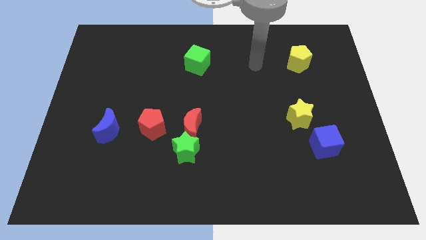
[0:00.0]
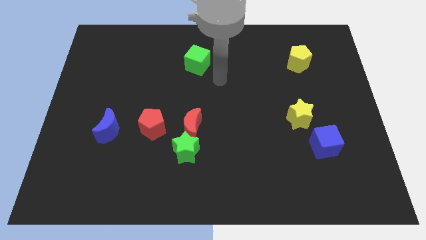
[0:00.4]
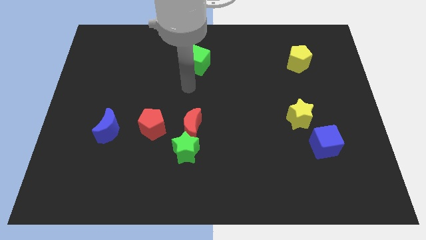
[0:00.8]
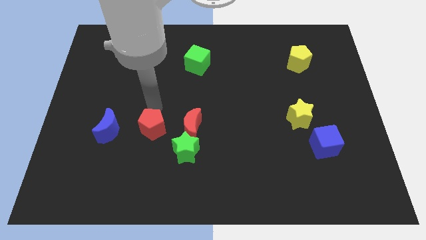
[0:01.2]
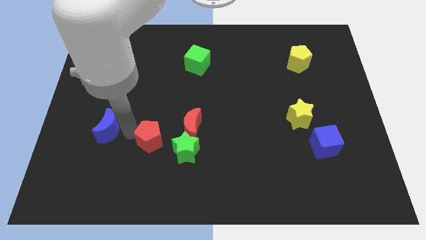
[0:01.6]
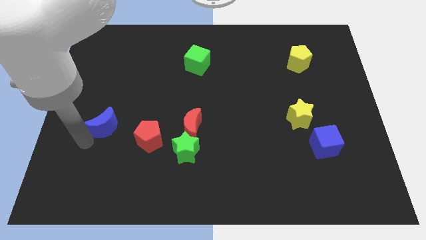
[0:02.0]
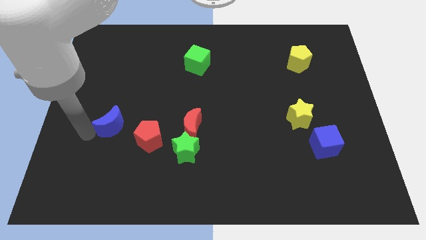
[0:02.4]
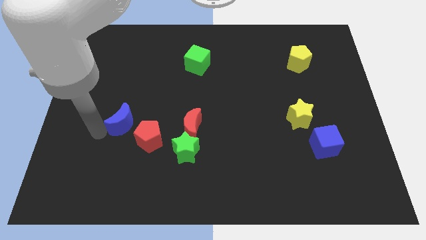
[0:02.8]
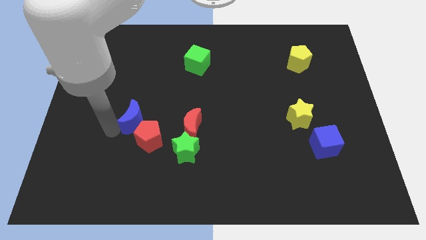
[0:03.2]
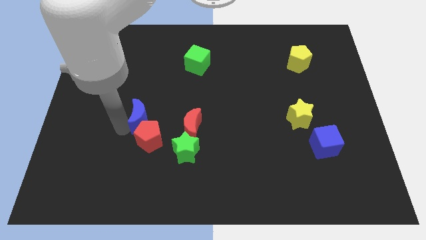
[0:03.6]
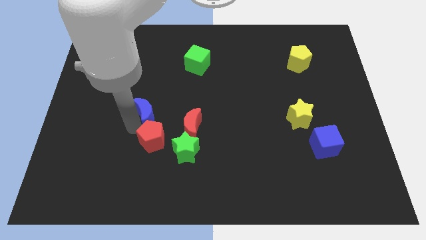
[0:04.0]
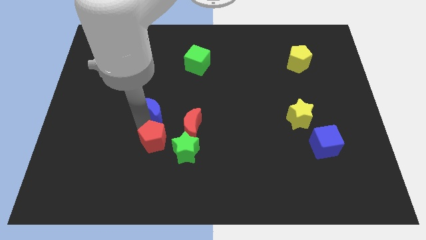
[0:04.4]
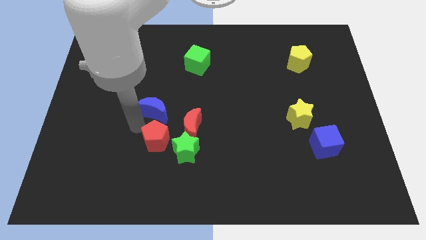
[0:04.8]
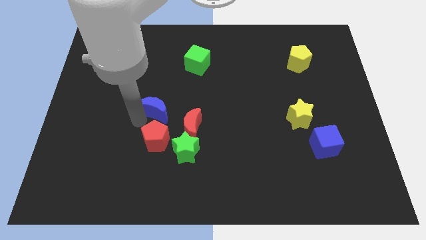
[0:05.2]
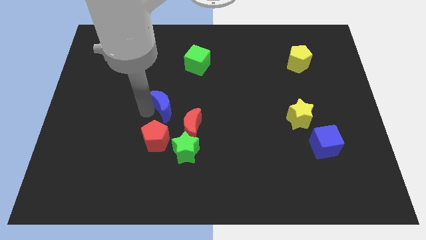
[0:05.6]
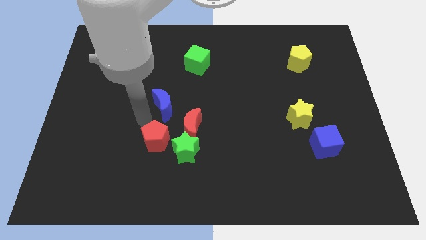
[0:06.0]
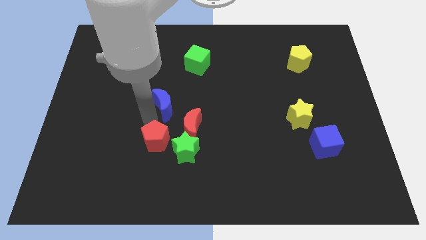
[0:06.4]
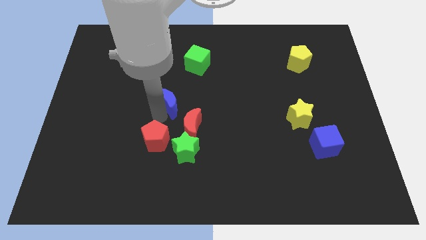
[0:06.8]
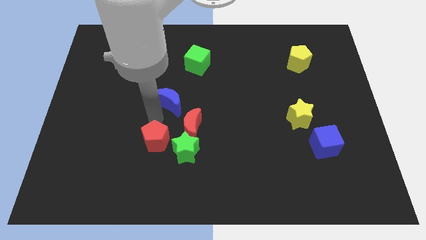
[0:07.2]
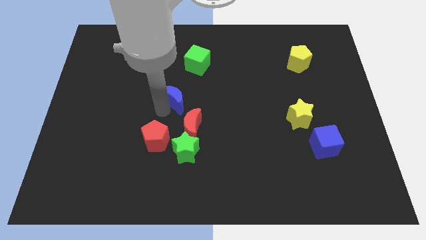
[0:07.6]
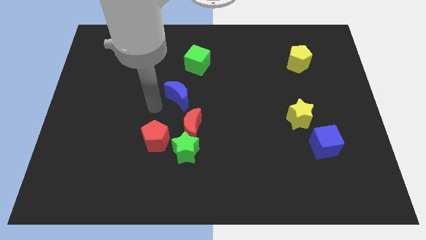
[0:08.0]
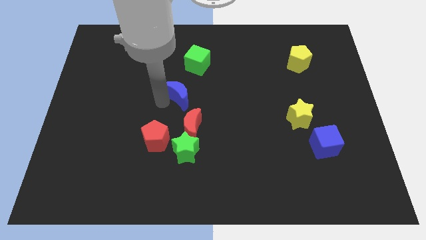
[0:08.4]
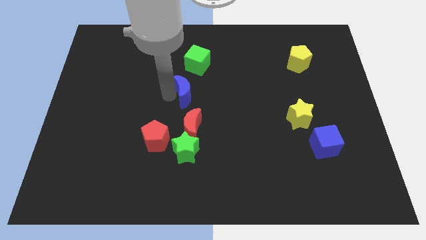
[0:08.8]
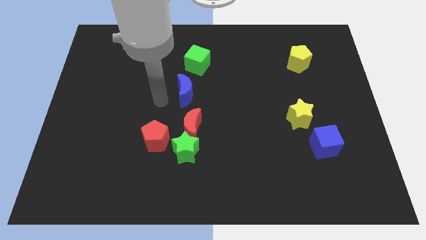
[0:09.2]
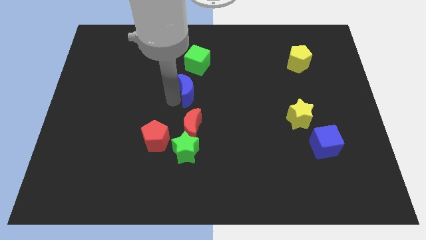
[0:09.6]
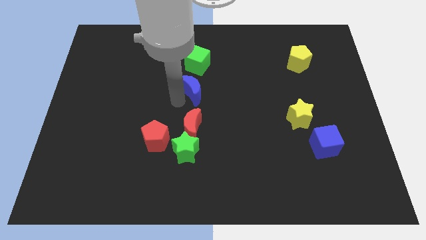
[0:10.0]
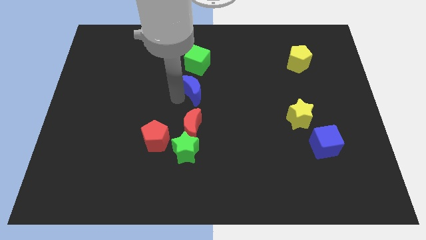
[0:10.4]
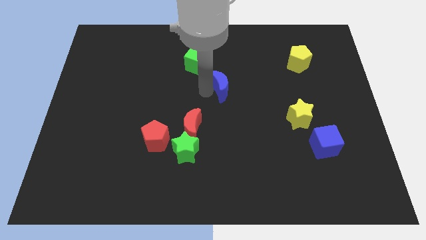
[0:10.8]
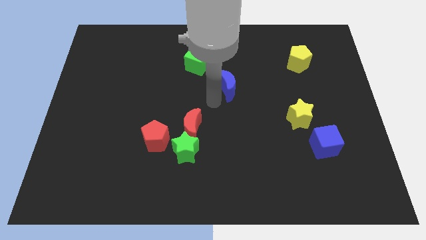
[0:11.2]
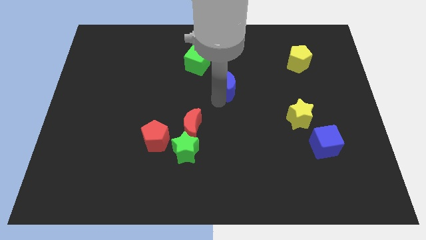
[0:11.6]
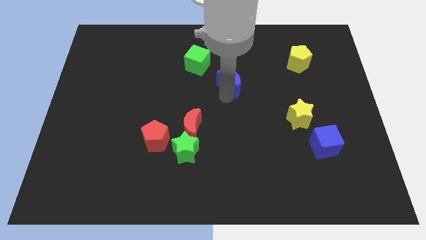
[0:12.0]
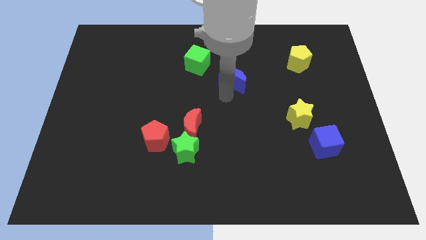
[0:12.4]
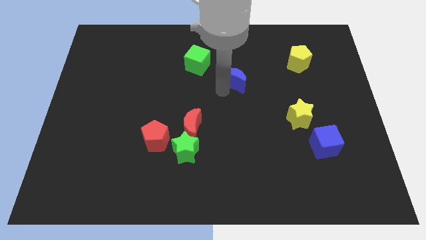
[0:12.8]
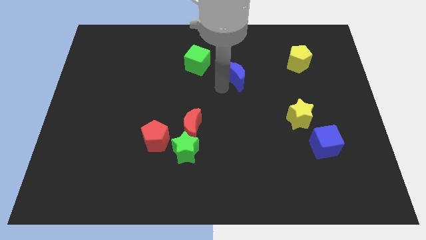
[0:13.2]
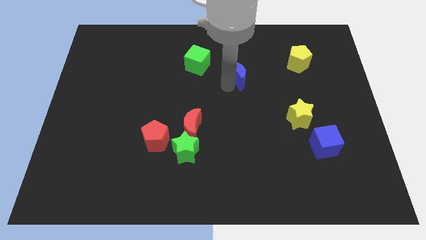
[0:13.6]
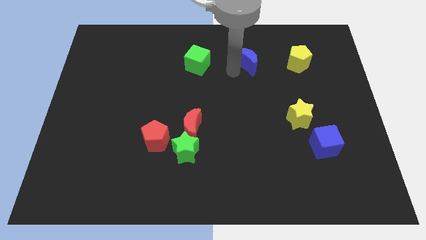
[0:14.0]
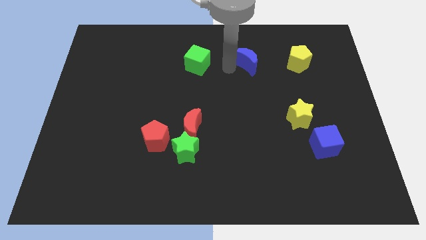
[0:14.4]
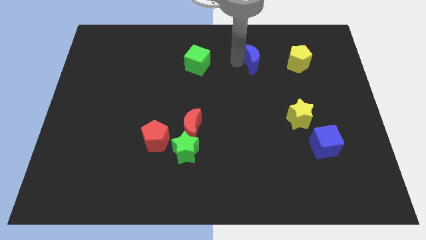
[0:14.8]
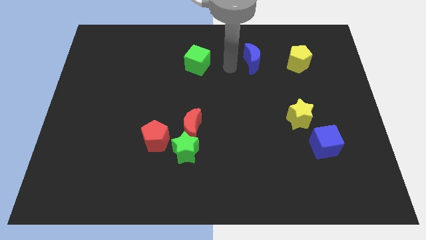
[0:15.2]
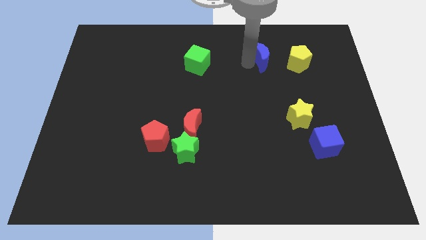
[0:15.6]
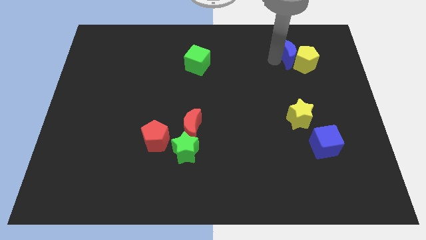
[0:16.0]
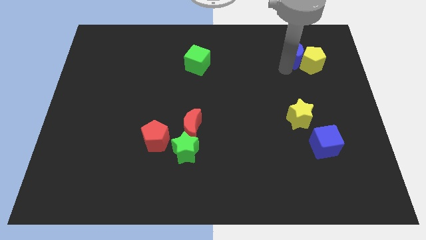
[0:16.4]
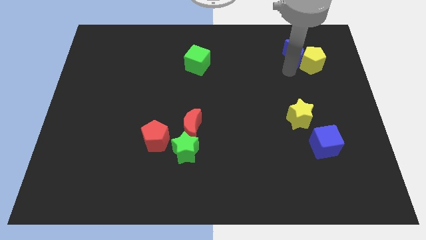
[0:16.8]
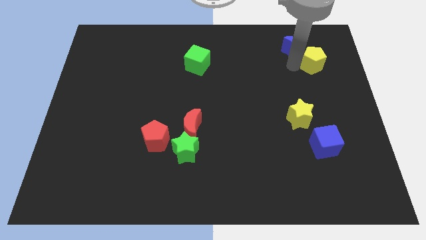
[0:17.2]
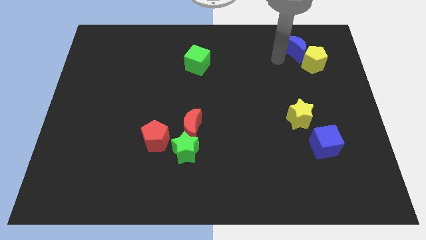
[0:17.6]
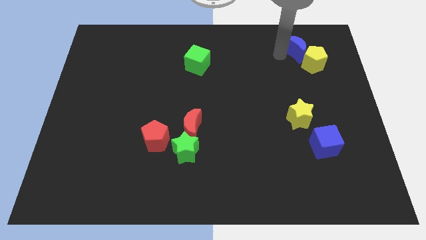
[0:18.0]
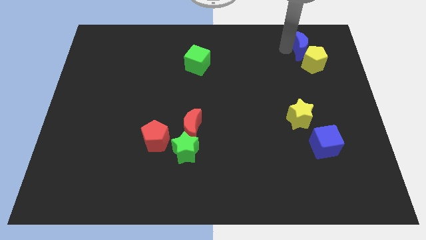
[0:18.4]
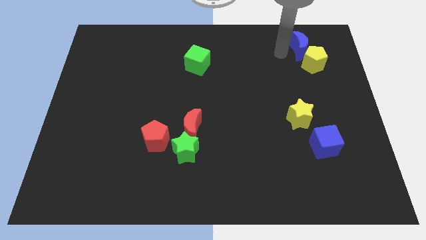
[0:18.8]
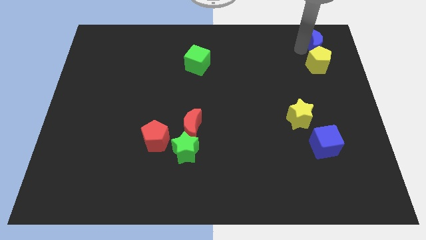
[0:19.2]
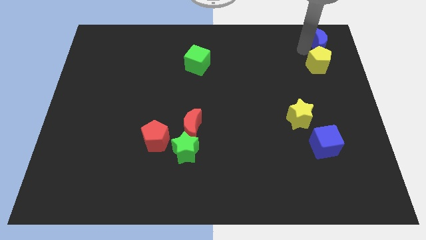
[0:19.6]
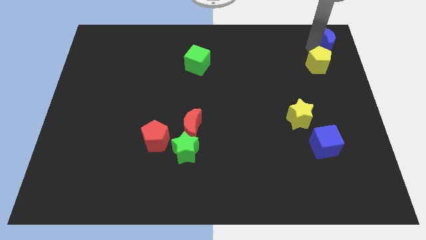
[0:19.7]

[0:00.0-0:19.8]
slide the blue moon to the top right corner

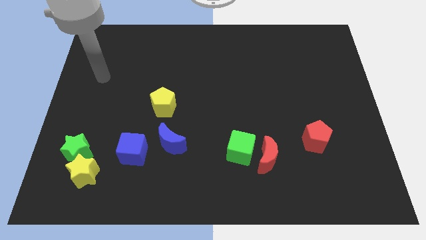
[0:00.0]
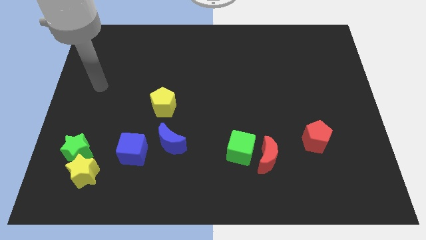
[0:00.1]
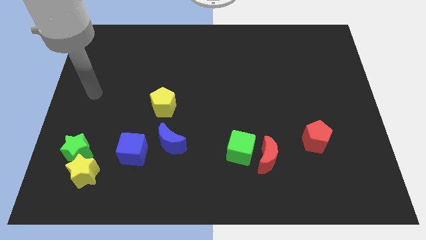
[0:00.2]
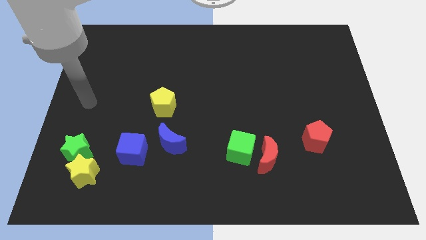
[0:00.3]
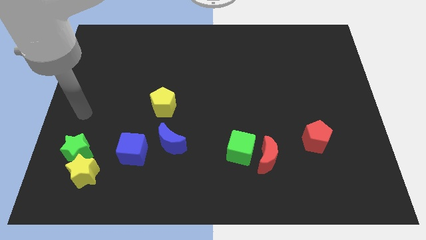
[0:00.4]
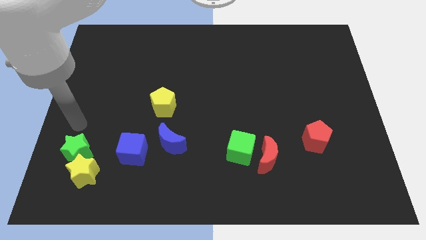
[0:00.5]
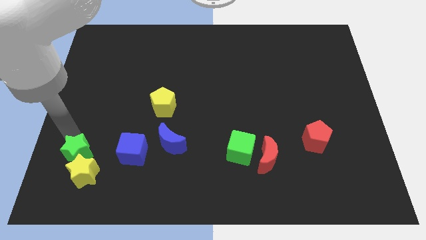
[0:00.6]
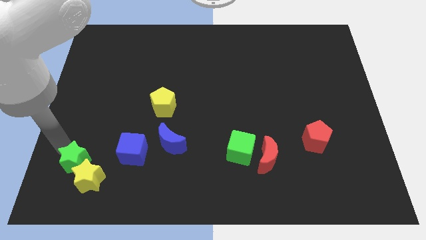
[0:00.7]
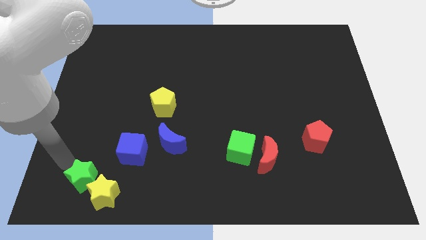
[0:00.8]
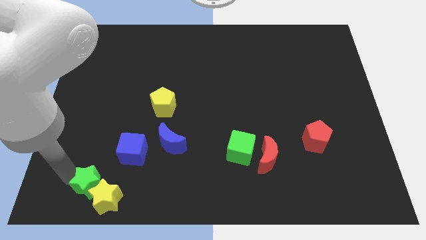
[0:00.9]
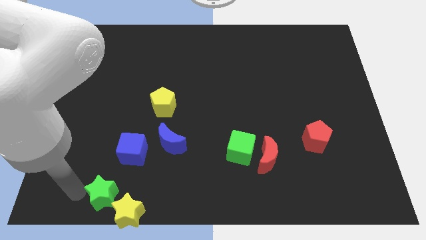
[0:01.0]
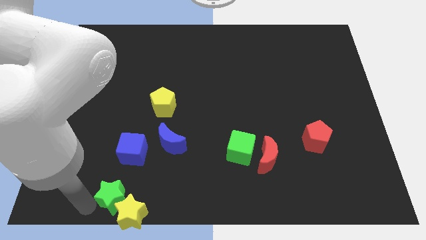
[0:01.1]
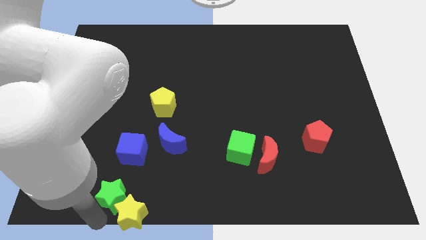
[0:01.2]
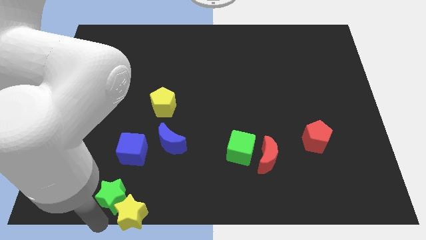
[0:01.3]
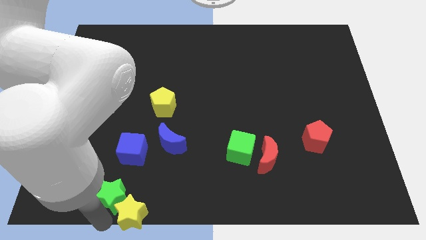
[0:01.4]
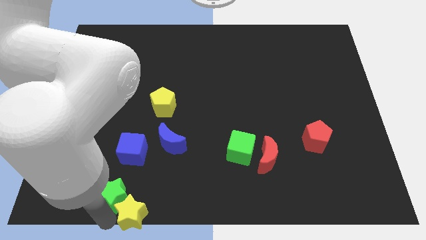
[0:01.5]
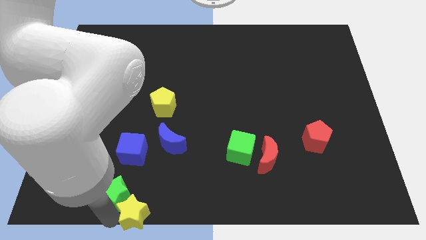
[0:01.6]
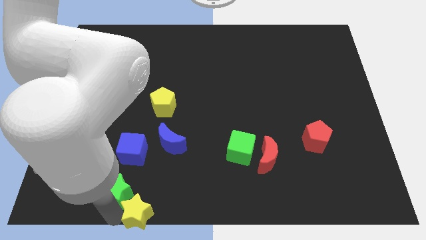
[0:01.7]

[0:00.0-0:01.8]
put the yellow star to the bottom

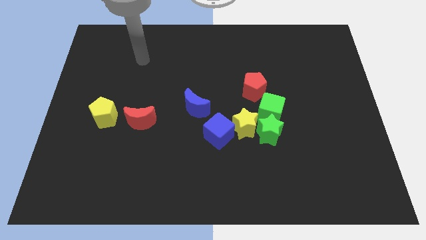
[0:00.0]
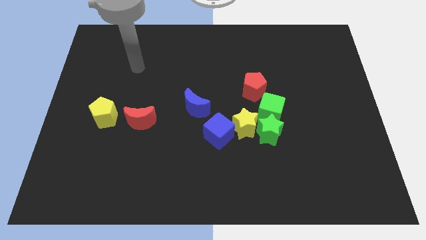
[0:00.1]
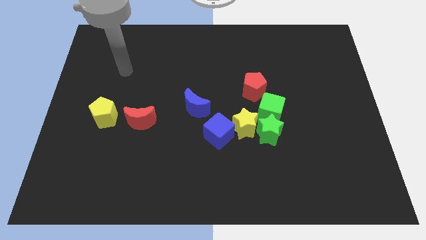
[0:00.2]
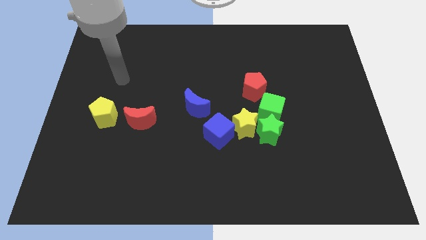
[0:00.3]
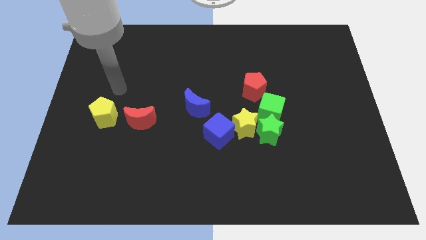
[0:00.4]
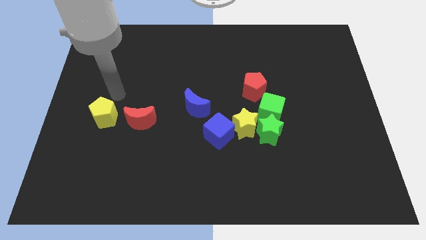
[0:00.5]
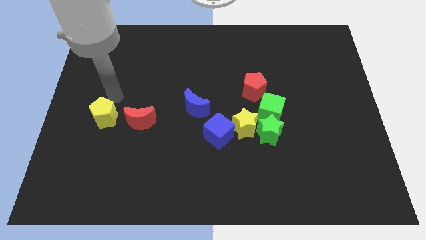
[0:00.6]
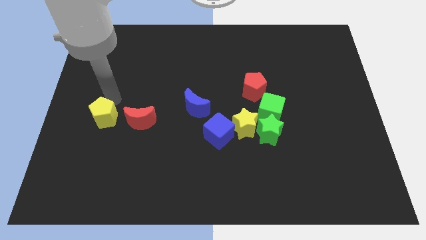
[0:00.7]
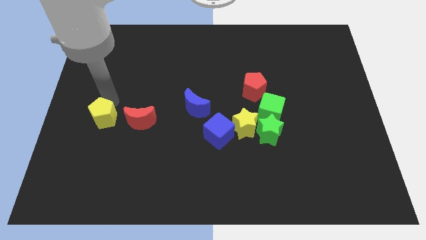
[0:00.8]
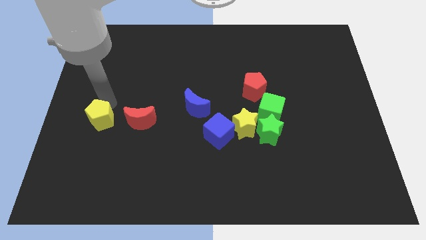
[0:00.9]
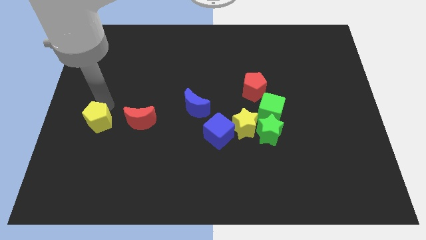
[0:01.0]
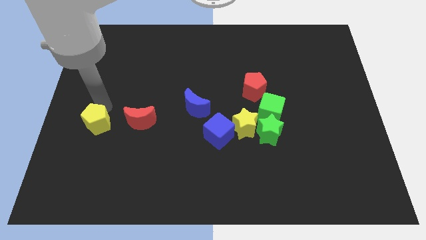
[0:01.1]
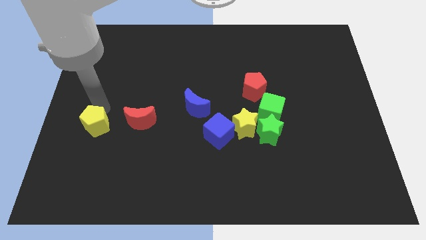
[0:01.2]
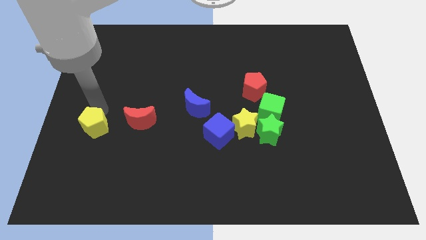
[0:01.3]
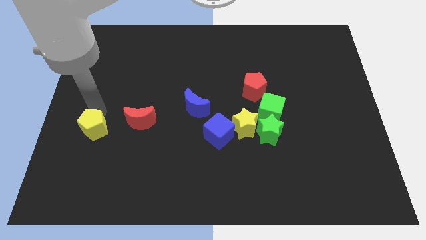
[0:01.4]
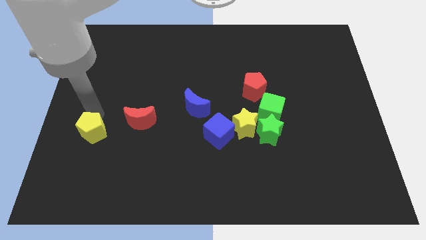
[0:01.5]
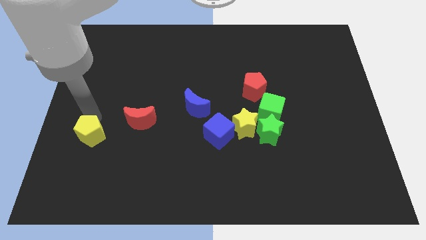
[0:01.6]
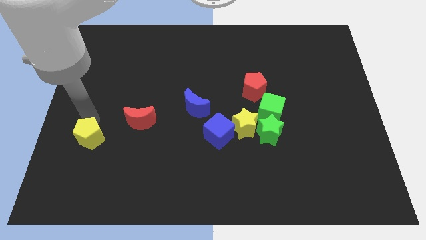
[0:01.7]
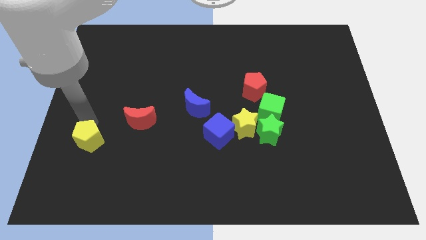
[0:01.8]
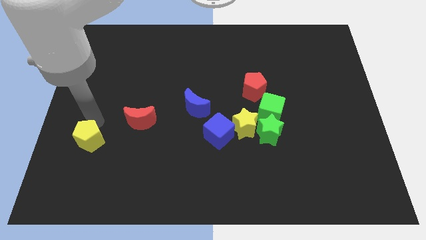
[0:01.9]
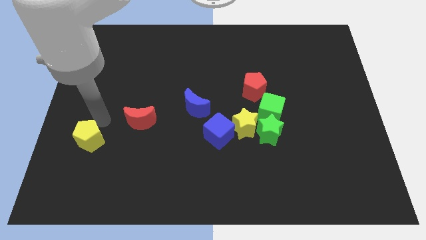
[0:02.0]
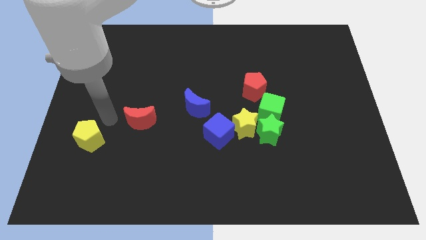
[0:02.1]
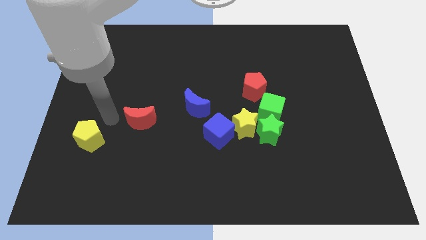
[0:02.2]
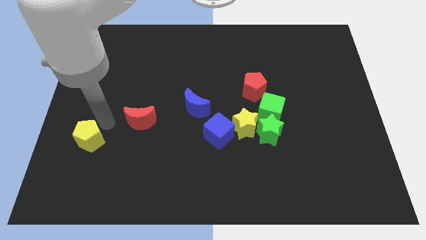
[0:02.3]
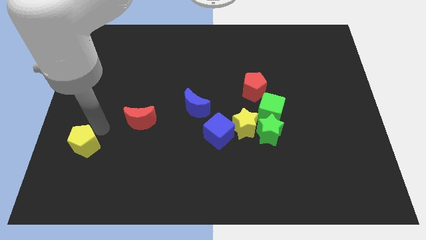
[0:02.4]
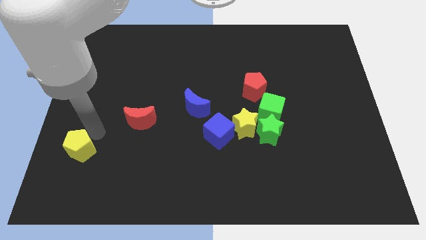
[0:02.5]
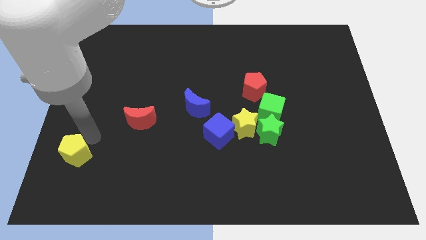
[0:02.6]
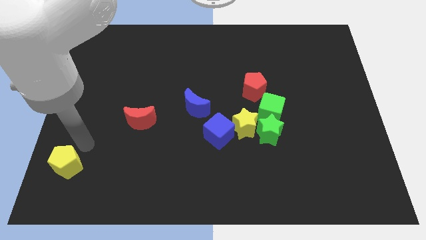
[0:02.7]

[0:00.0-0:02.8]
push the yellow pentagon to the lower left corner
